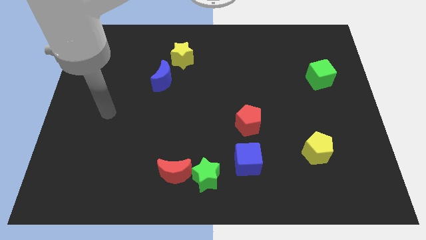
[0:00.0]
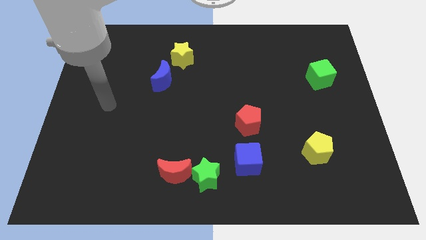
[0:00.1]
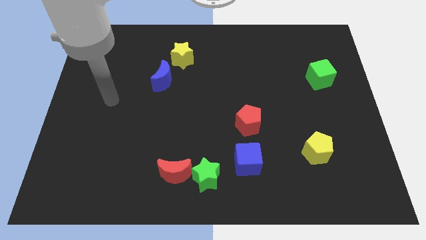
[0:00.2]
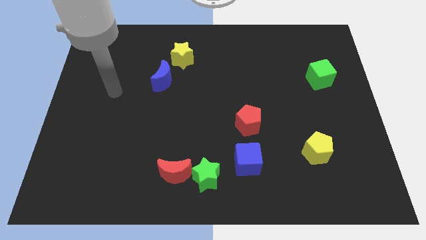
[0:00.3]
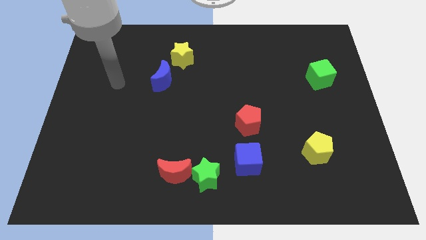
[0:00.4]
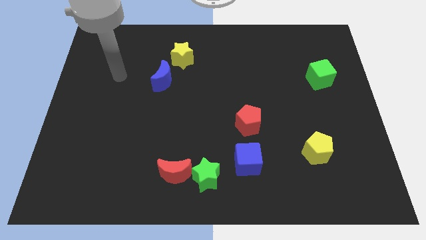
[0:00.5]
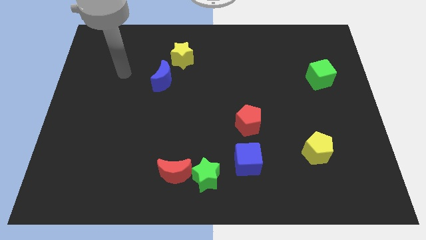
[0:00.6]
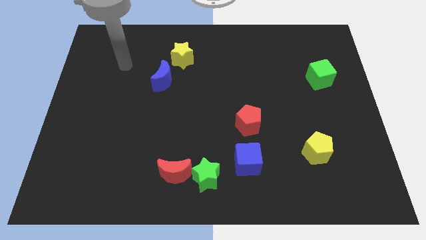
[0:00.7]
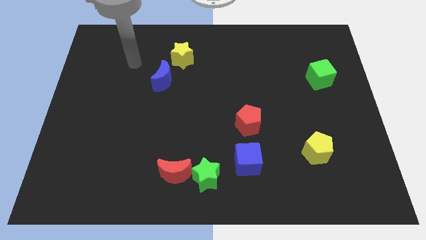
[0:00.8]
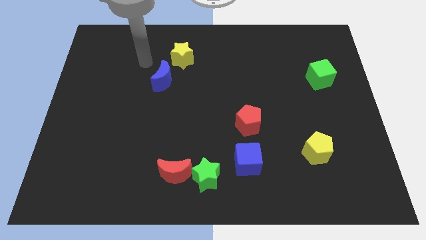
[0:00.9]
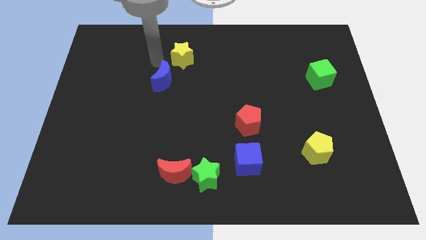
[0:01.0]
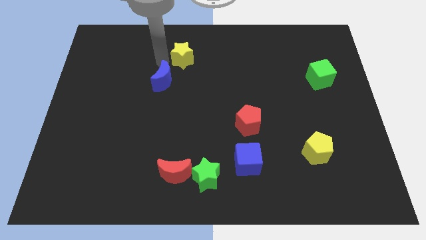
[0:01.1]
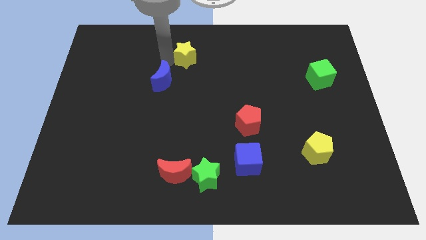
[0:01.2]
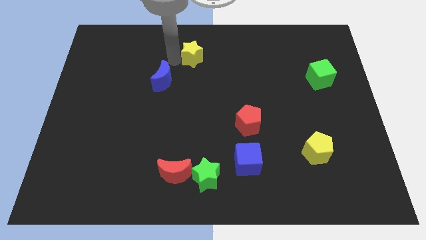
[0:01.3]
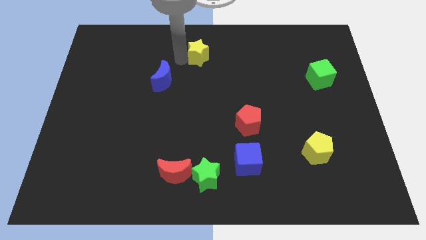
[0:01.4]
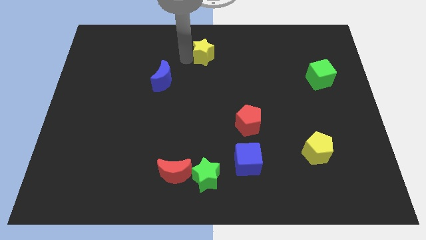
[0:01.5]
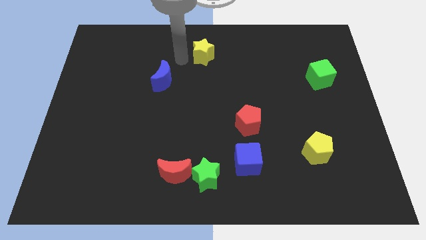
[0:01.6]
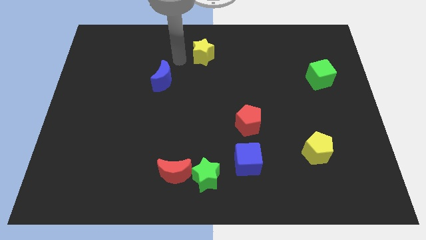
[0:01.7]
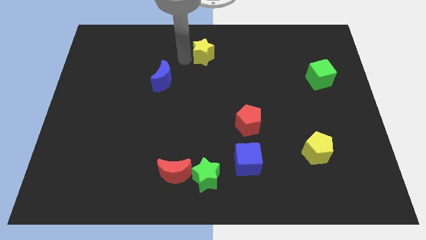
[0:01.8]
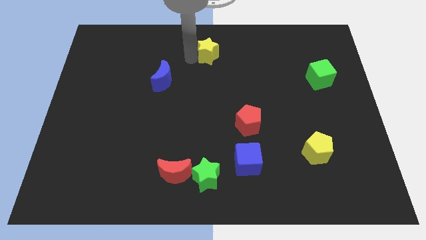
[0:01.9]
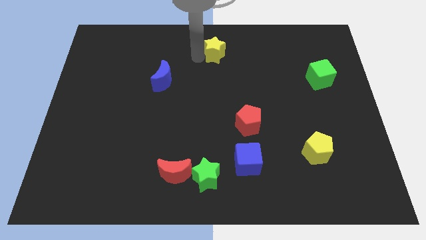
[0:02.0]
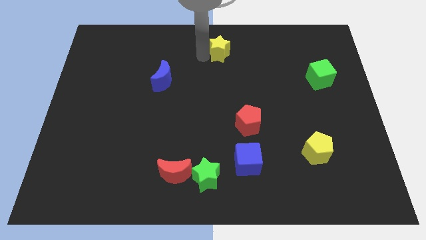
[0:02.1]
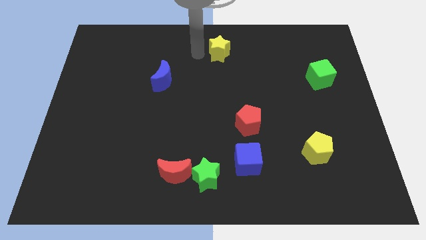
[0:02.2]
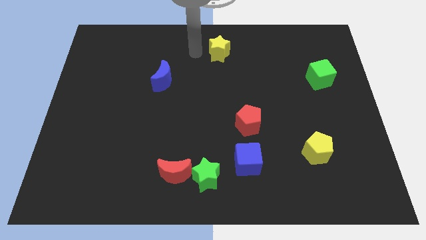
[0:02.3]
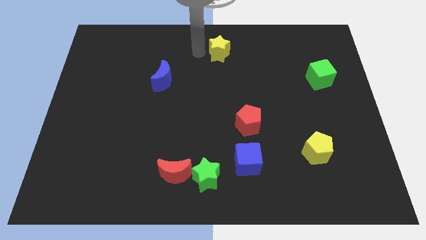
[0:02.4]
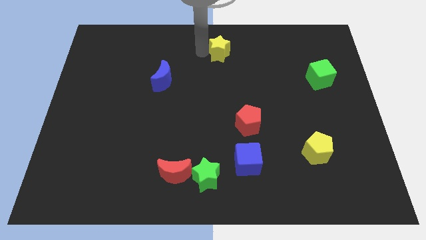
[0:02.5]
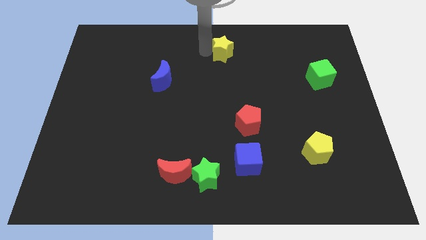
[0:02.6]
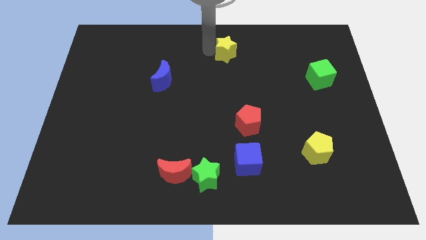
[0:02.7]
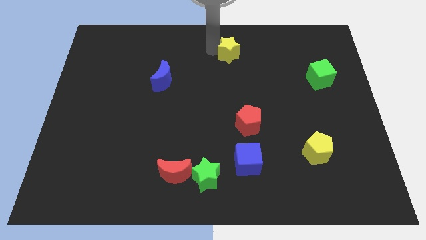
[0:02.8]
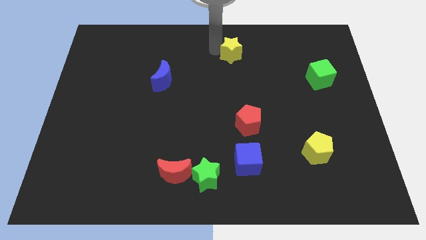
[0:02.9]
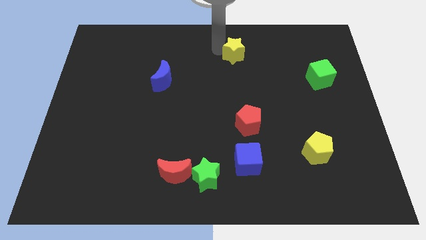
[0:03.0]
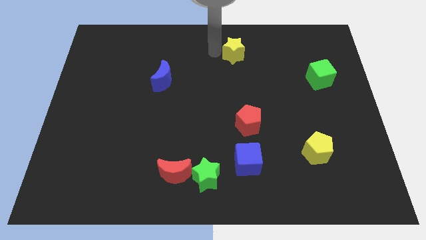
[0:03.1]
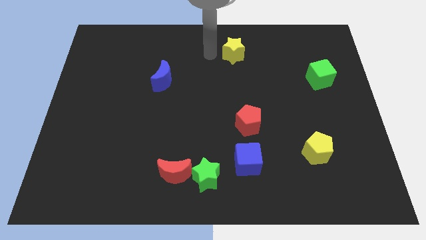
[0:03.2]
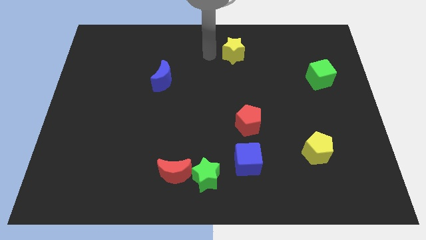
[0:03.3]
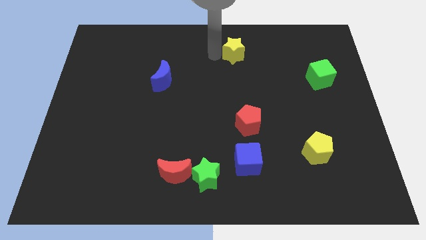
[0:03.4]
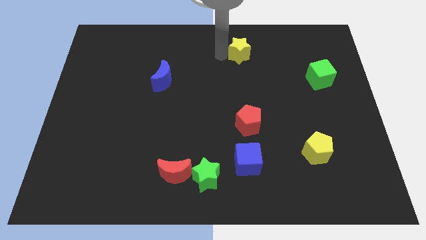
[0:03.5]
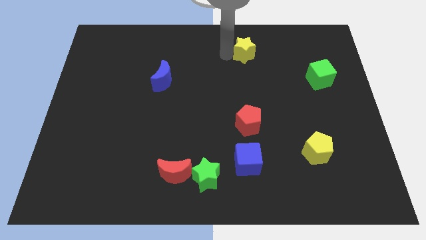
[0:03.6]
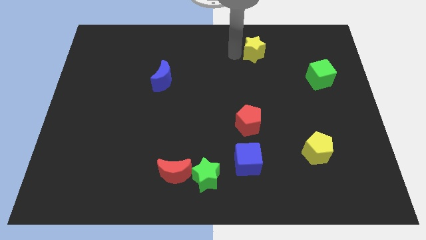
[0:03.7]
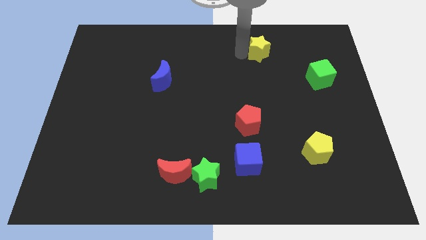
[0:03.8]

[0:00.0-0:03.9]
move the yellow star to the right

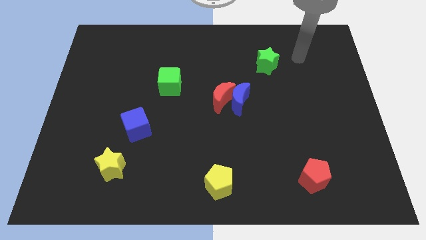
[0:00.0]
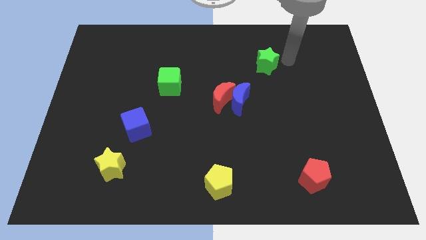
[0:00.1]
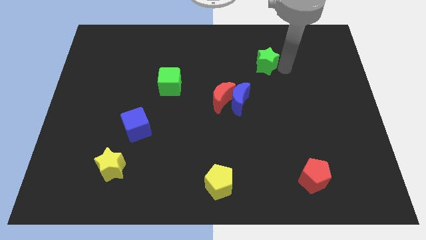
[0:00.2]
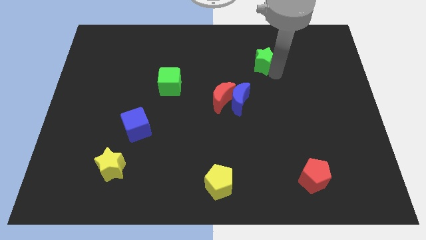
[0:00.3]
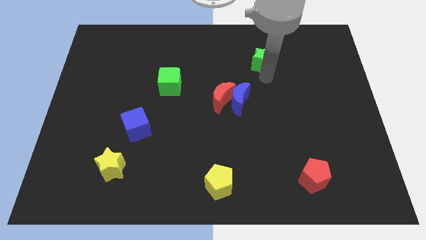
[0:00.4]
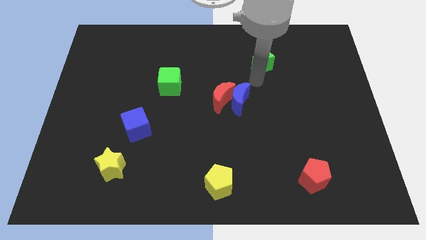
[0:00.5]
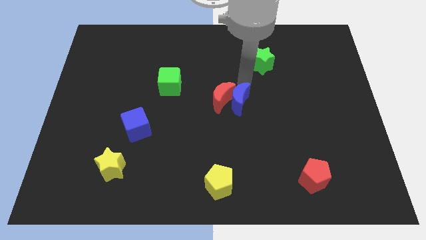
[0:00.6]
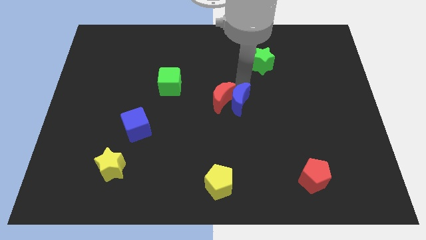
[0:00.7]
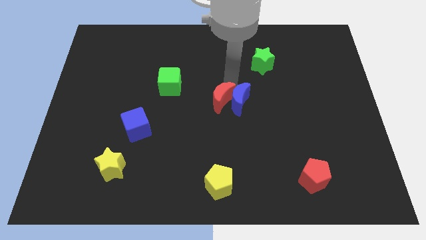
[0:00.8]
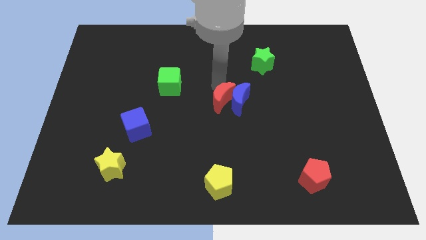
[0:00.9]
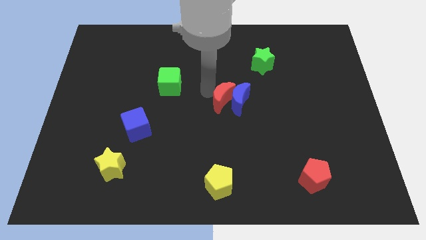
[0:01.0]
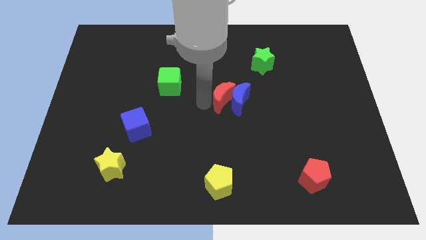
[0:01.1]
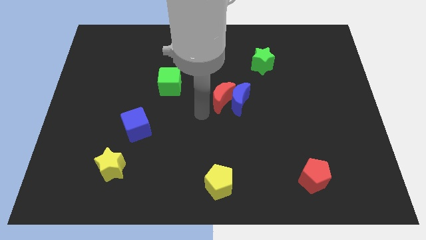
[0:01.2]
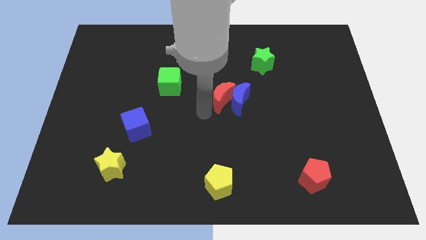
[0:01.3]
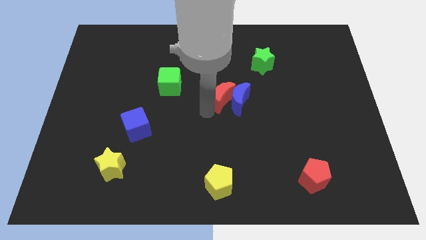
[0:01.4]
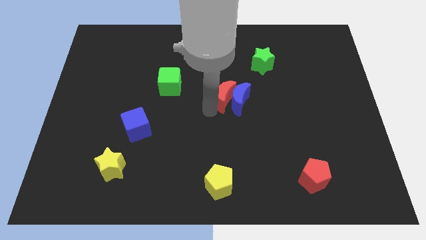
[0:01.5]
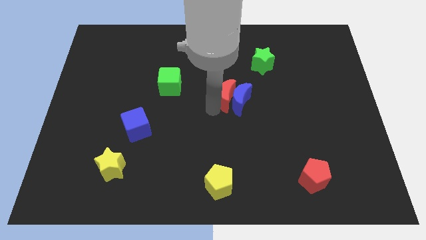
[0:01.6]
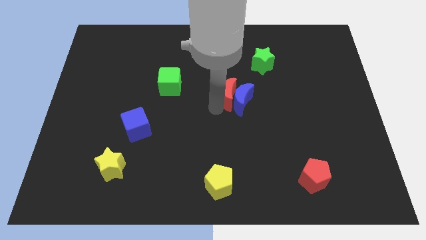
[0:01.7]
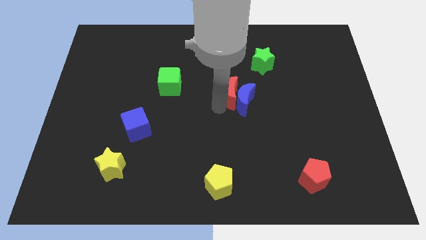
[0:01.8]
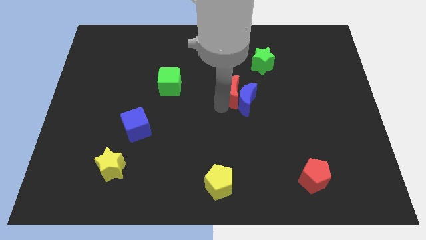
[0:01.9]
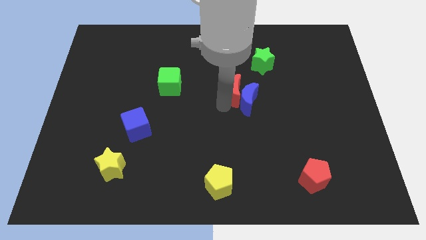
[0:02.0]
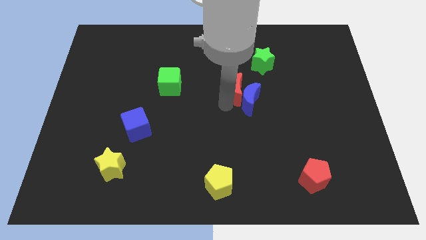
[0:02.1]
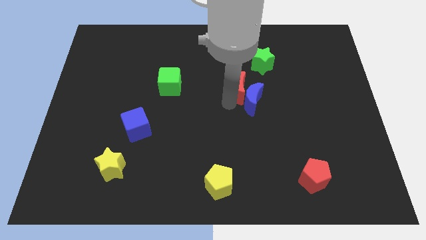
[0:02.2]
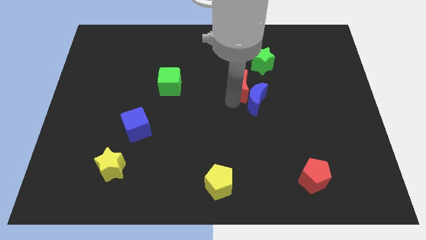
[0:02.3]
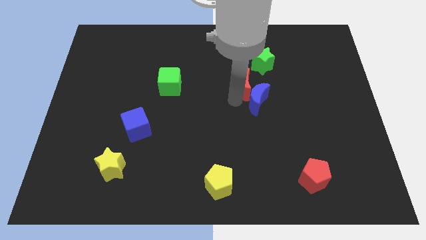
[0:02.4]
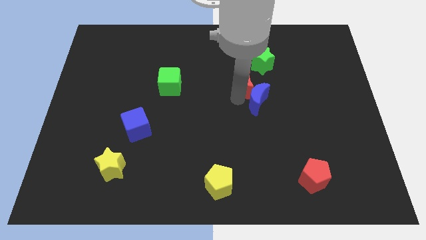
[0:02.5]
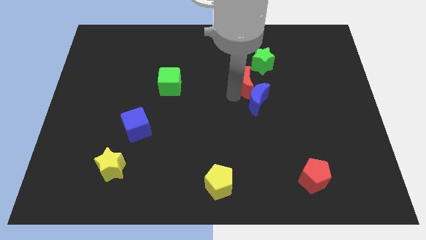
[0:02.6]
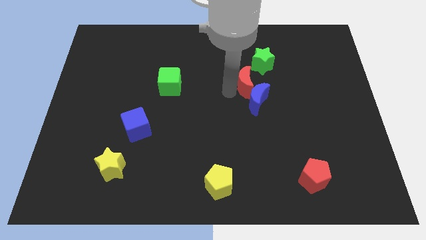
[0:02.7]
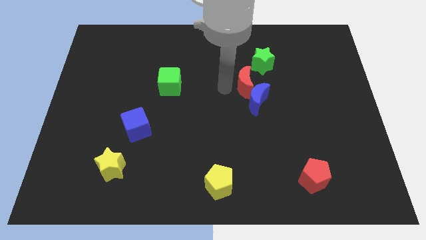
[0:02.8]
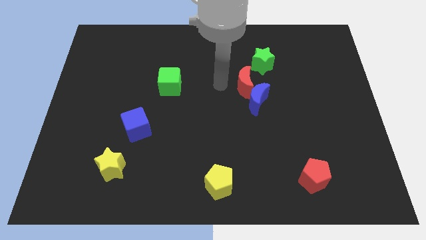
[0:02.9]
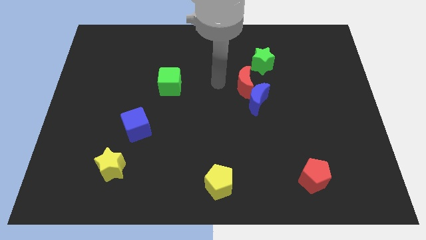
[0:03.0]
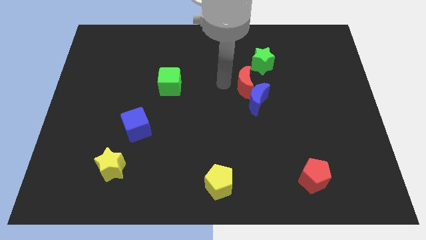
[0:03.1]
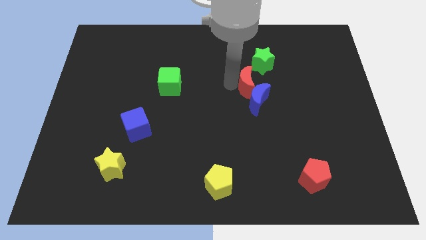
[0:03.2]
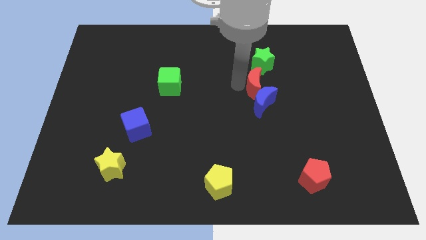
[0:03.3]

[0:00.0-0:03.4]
slightly push the red moon right

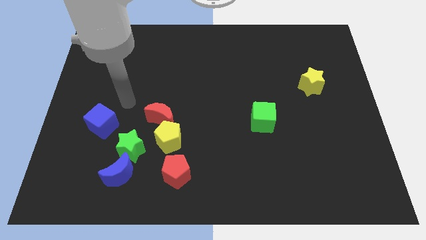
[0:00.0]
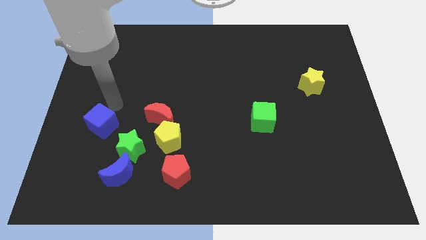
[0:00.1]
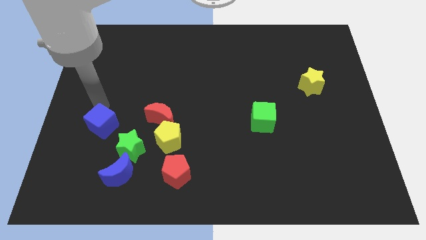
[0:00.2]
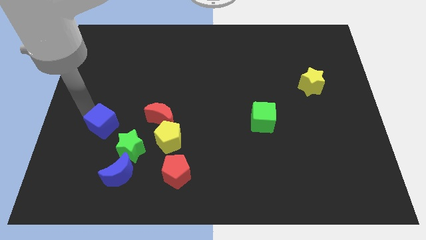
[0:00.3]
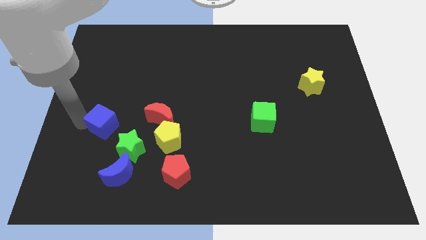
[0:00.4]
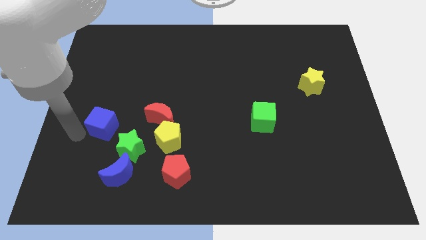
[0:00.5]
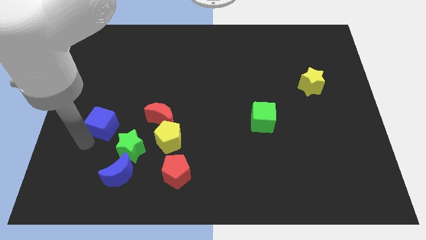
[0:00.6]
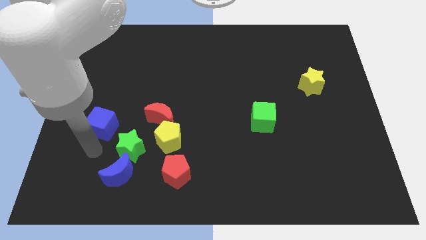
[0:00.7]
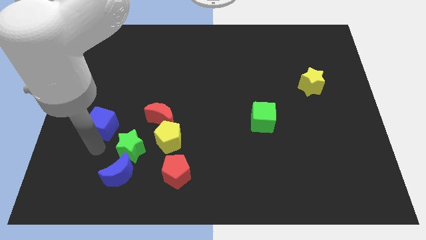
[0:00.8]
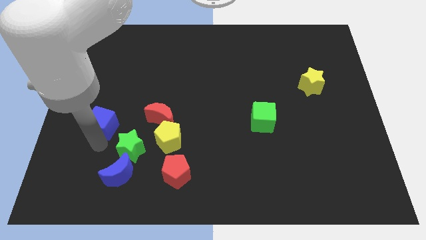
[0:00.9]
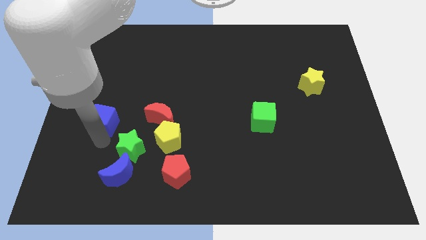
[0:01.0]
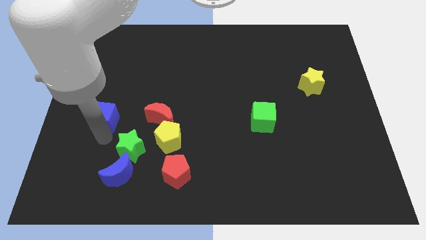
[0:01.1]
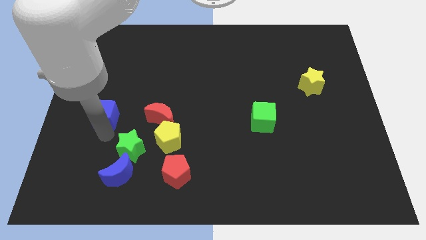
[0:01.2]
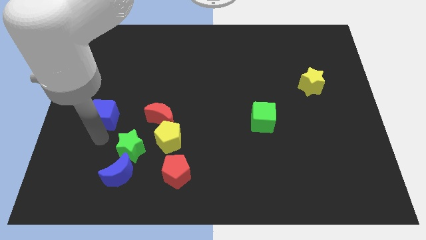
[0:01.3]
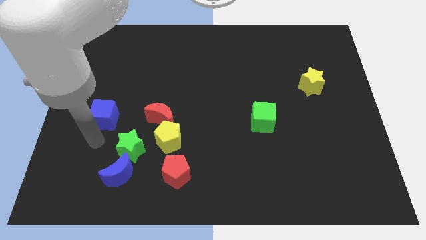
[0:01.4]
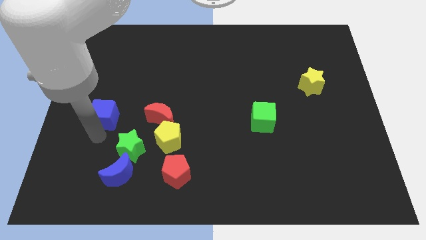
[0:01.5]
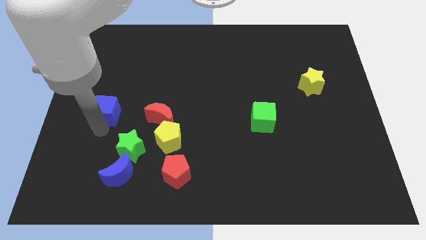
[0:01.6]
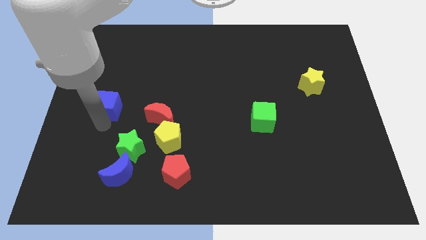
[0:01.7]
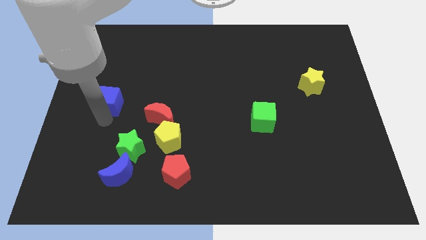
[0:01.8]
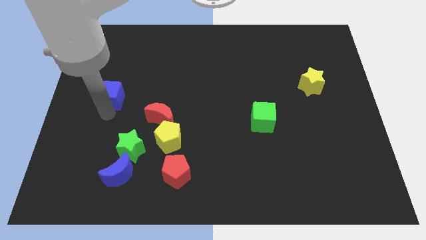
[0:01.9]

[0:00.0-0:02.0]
slightly move the blue cube upwards
